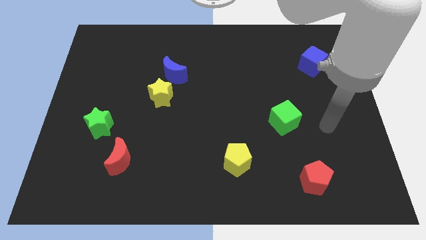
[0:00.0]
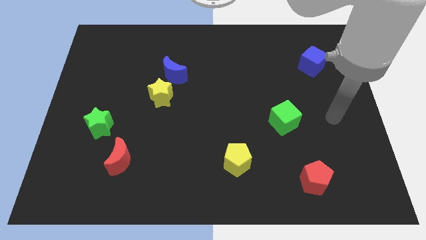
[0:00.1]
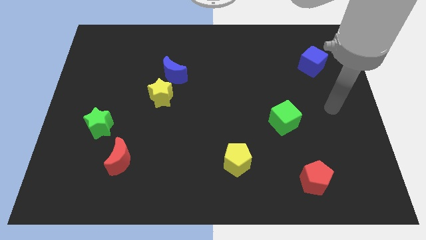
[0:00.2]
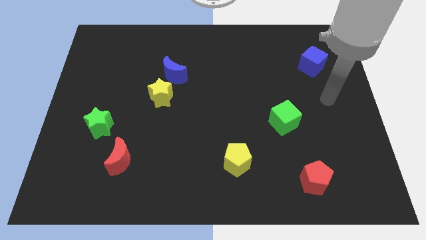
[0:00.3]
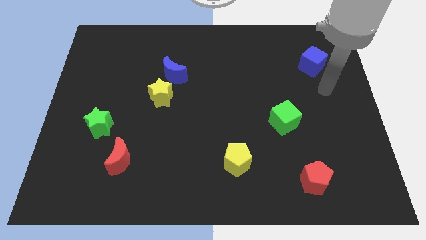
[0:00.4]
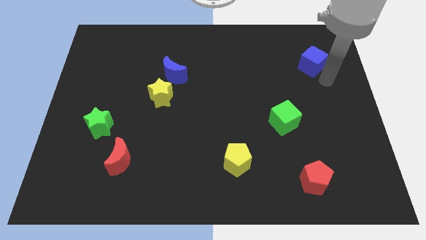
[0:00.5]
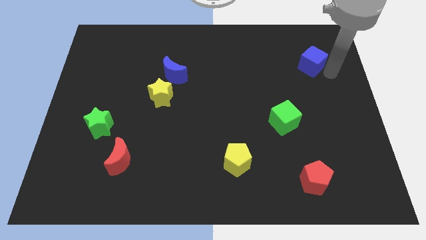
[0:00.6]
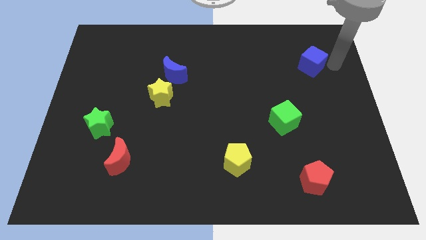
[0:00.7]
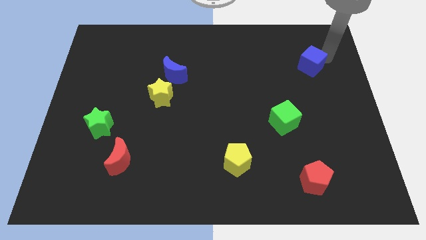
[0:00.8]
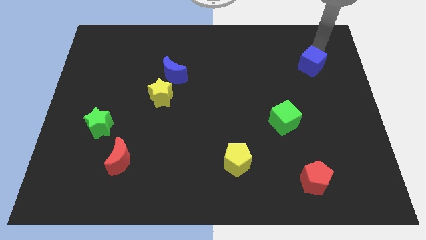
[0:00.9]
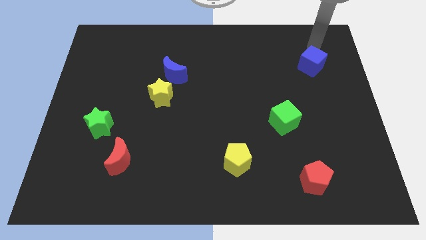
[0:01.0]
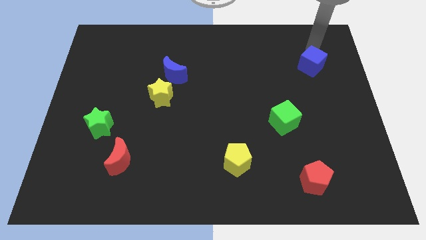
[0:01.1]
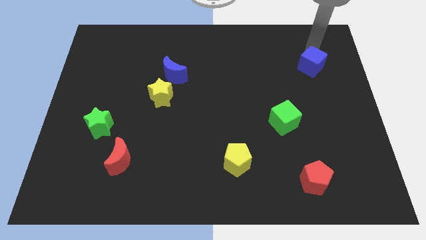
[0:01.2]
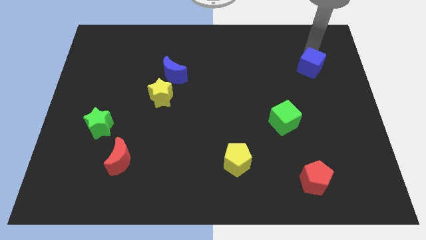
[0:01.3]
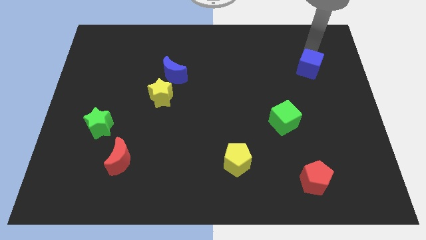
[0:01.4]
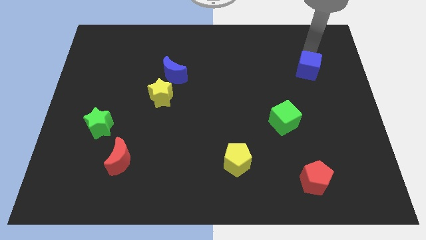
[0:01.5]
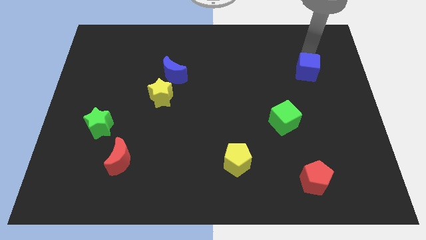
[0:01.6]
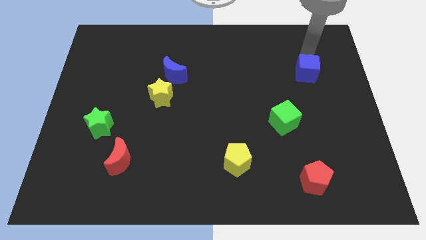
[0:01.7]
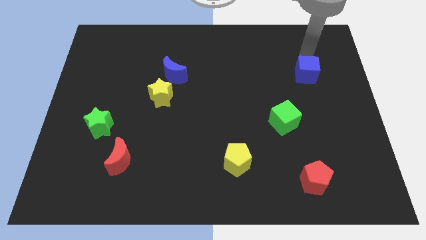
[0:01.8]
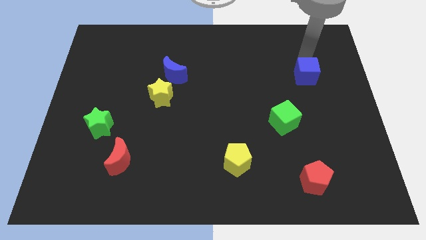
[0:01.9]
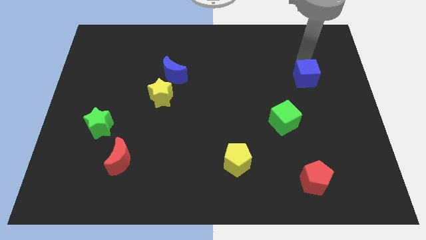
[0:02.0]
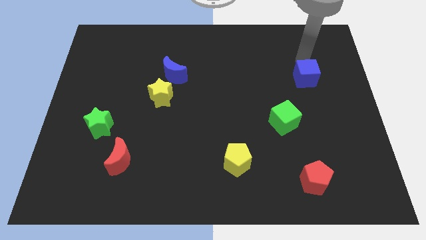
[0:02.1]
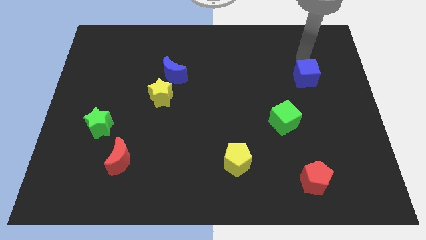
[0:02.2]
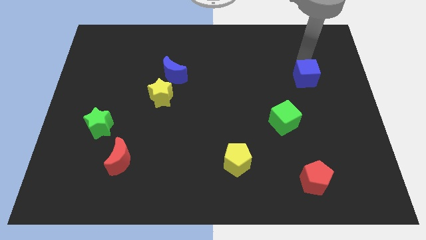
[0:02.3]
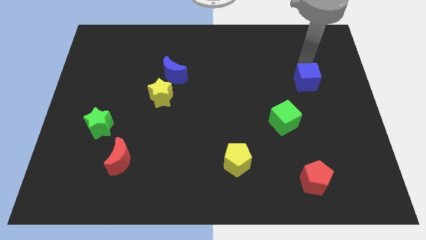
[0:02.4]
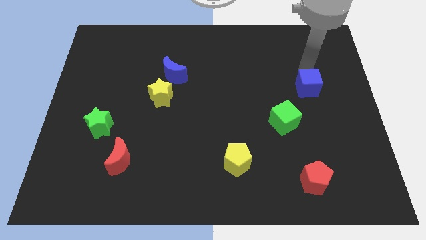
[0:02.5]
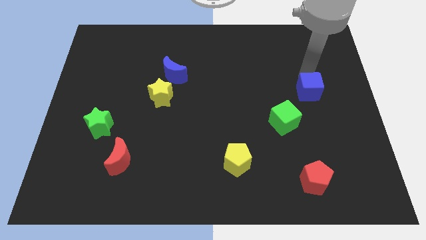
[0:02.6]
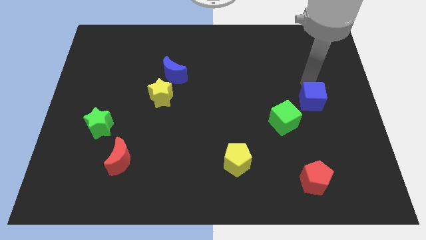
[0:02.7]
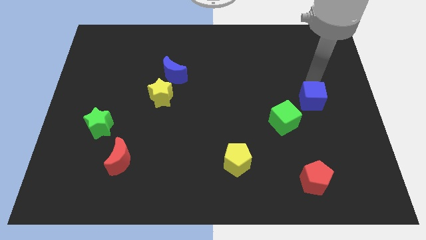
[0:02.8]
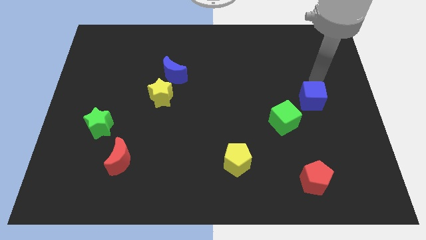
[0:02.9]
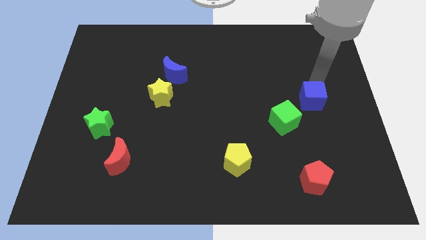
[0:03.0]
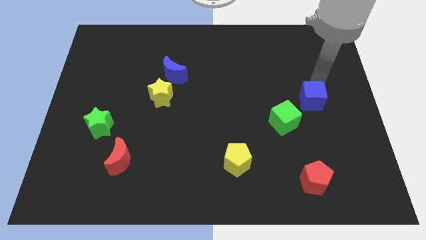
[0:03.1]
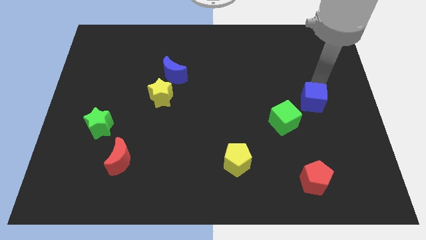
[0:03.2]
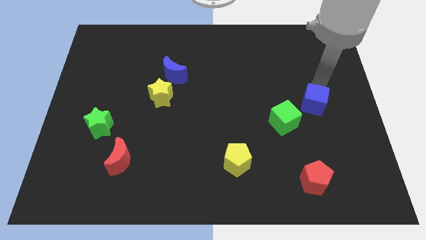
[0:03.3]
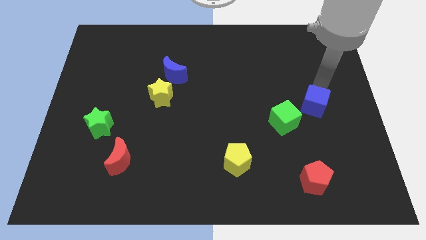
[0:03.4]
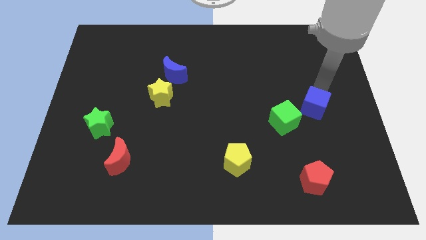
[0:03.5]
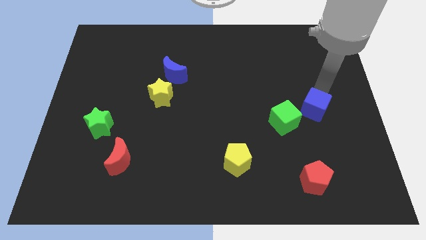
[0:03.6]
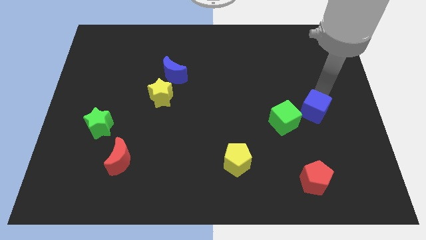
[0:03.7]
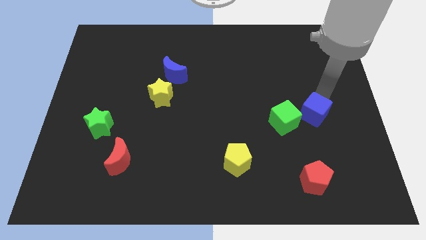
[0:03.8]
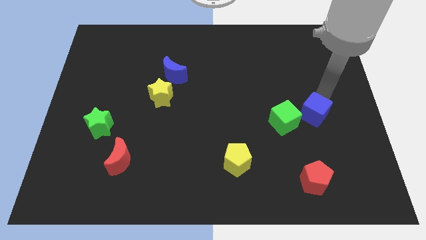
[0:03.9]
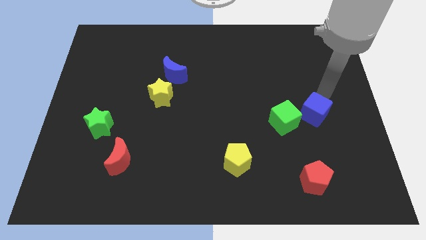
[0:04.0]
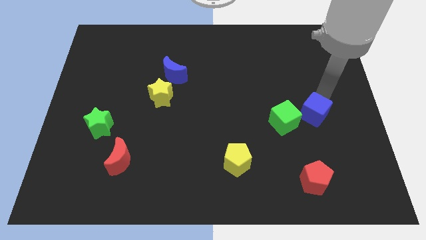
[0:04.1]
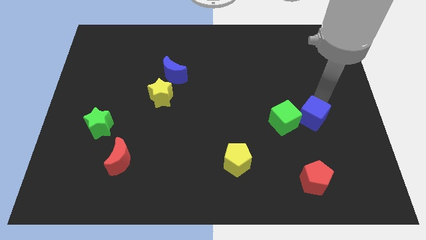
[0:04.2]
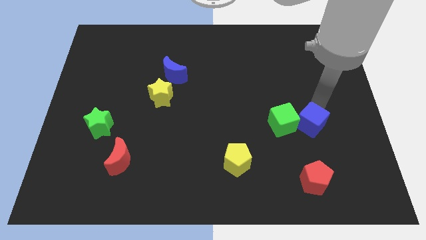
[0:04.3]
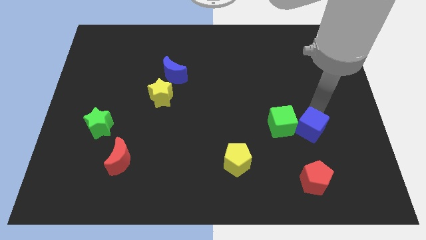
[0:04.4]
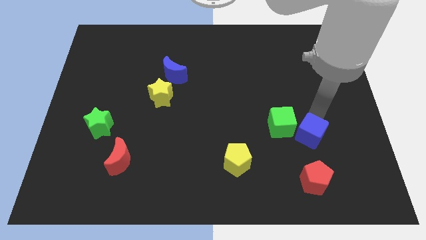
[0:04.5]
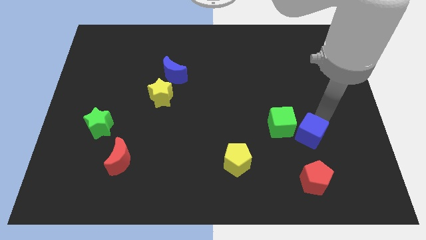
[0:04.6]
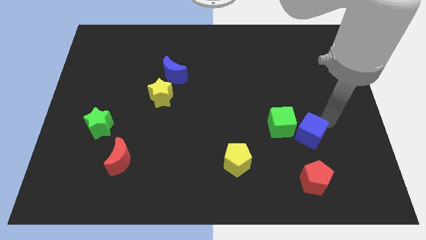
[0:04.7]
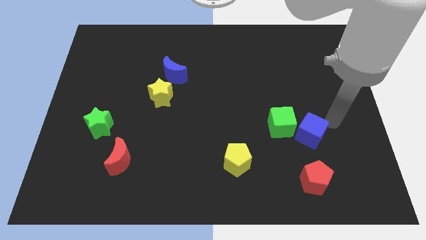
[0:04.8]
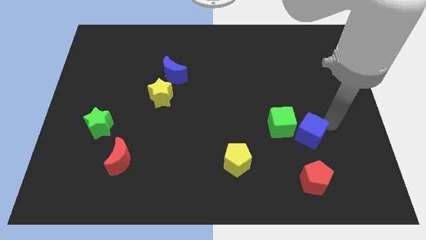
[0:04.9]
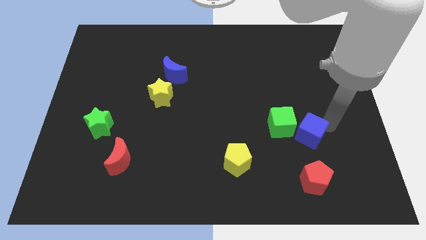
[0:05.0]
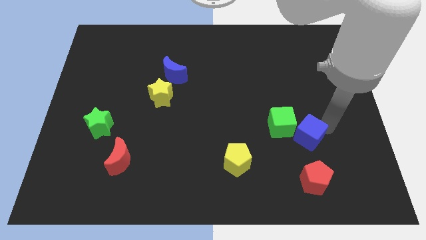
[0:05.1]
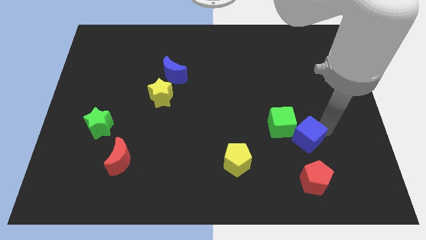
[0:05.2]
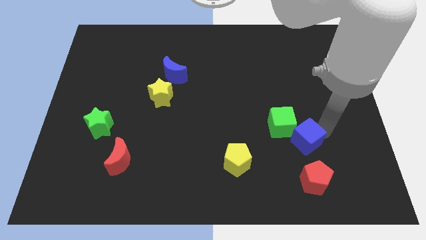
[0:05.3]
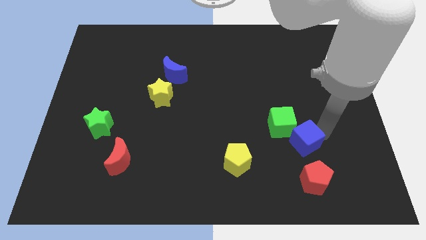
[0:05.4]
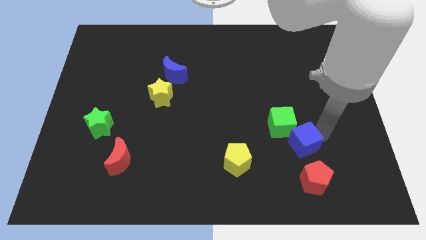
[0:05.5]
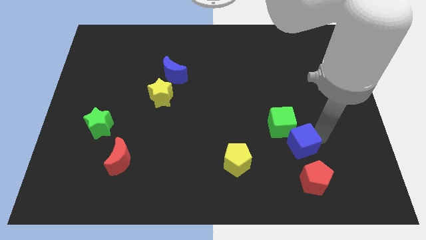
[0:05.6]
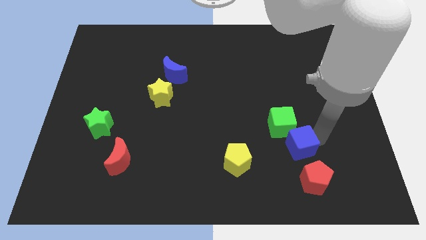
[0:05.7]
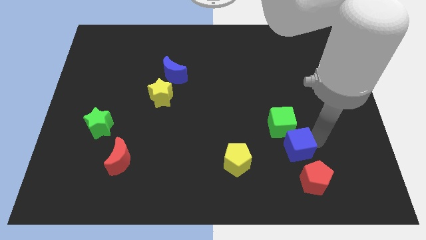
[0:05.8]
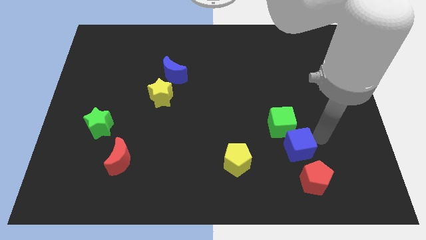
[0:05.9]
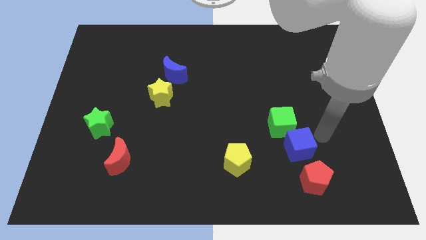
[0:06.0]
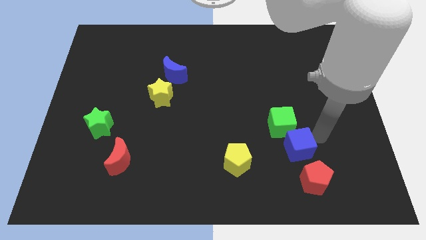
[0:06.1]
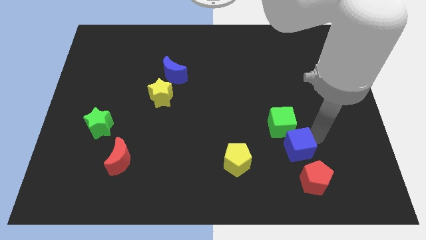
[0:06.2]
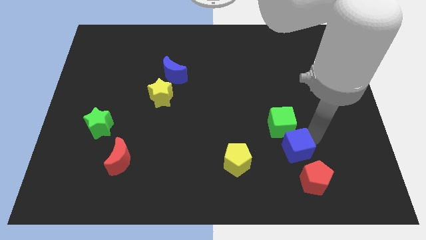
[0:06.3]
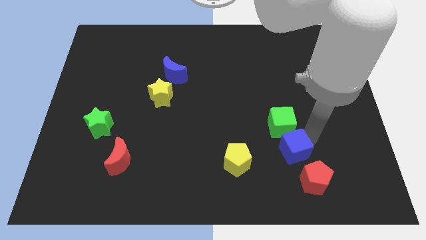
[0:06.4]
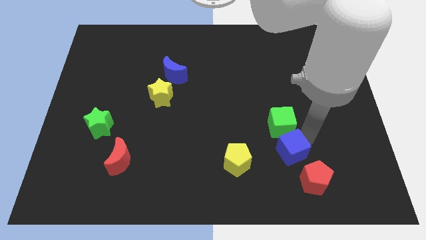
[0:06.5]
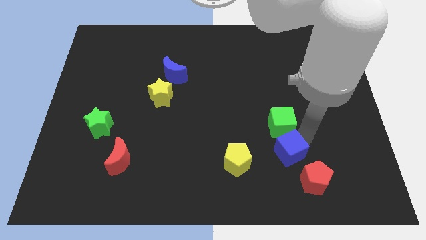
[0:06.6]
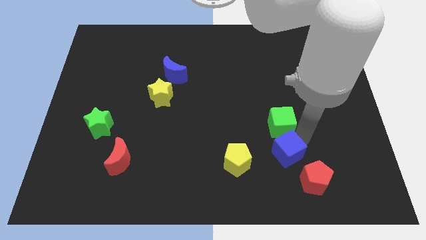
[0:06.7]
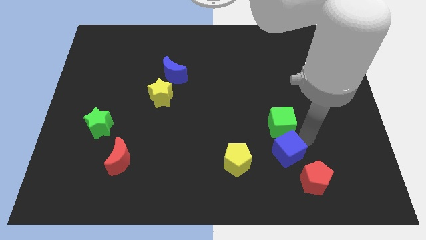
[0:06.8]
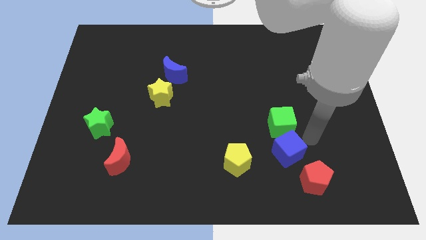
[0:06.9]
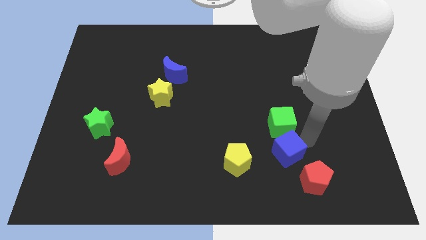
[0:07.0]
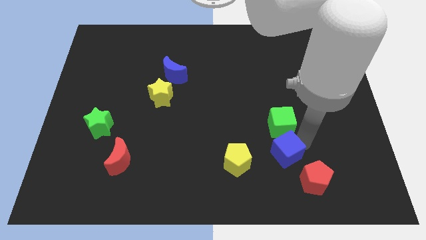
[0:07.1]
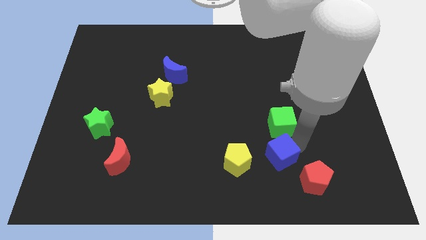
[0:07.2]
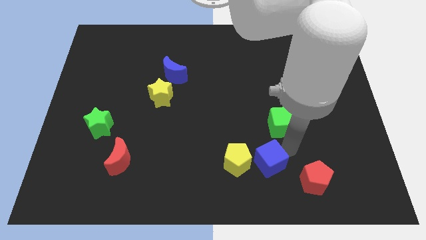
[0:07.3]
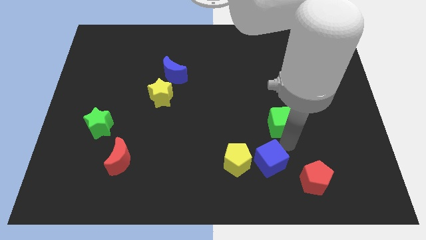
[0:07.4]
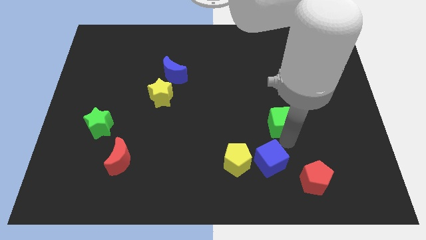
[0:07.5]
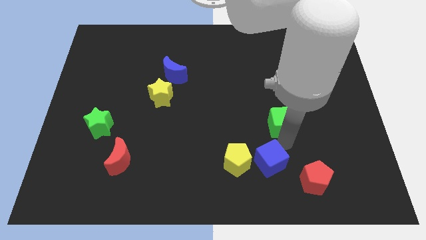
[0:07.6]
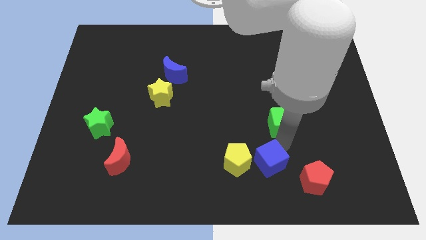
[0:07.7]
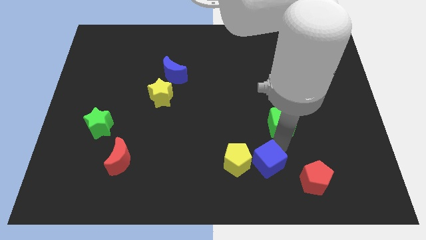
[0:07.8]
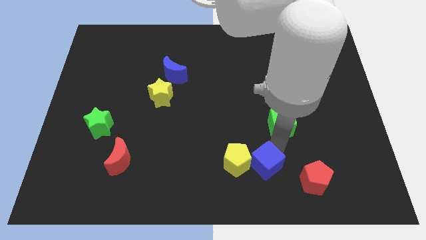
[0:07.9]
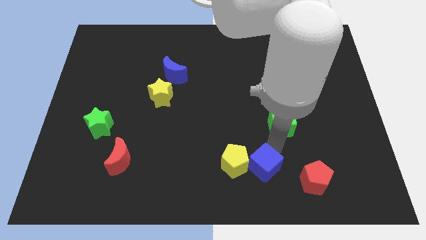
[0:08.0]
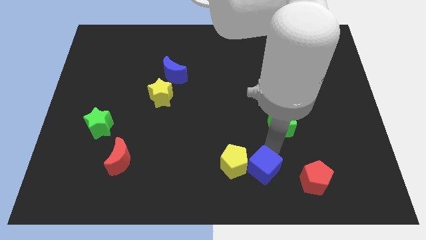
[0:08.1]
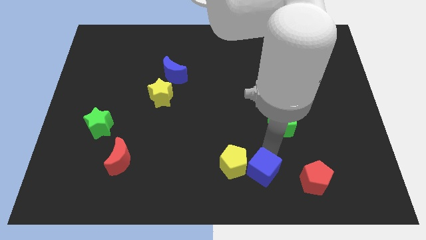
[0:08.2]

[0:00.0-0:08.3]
slide the blue cube to the bottom side
